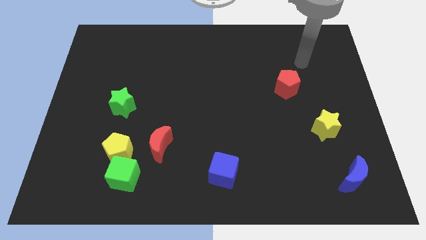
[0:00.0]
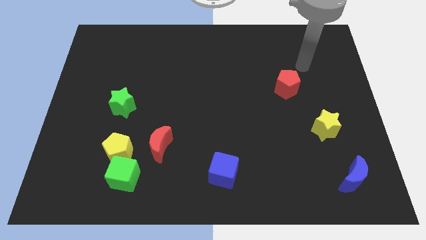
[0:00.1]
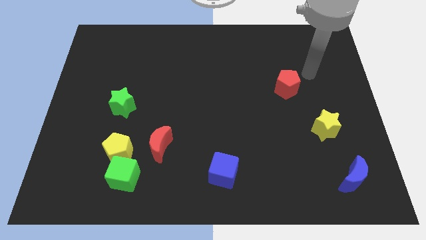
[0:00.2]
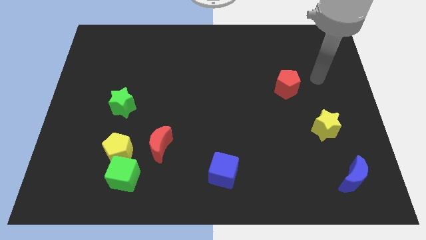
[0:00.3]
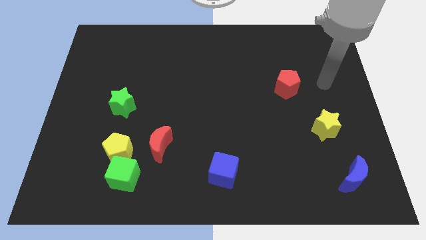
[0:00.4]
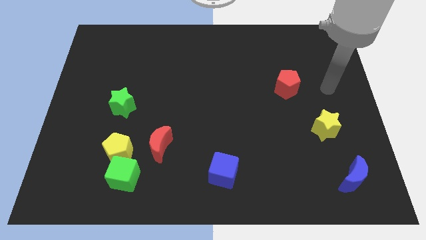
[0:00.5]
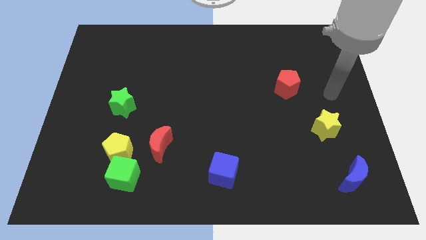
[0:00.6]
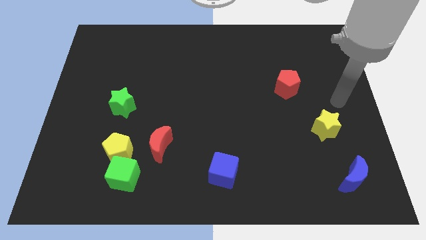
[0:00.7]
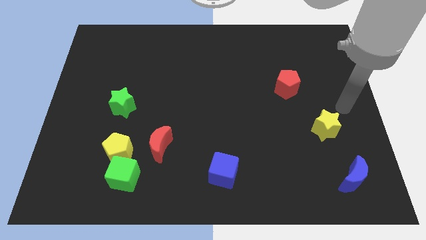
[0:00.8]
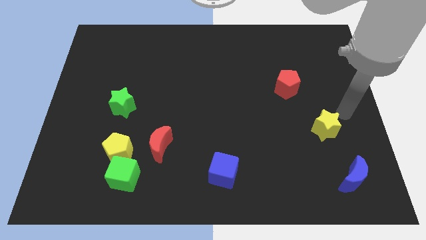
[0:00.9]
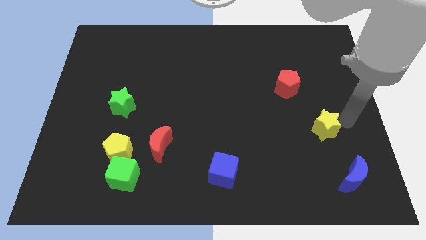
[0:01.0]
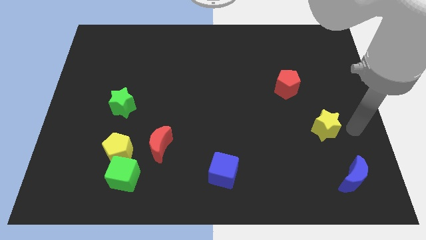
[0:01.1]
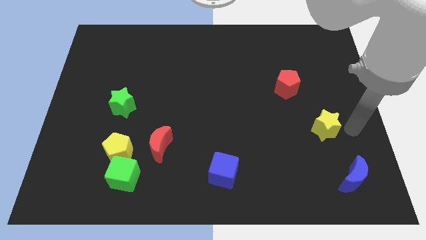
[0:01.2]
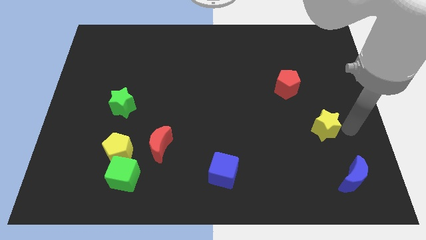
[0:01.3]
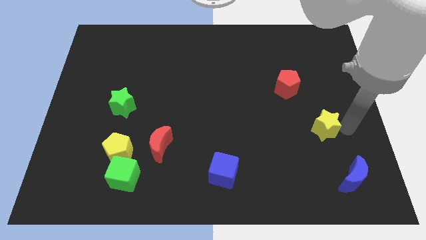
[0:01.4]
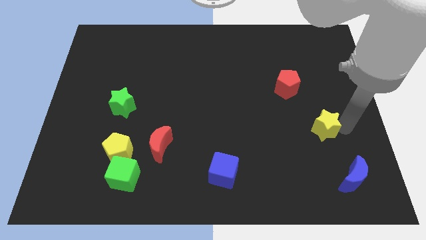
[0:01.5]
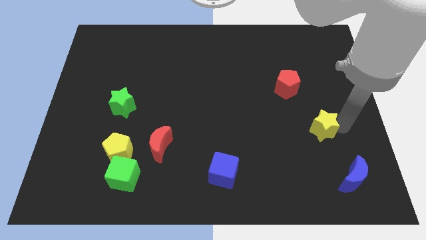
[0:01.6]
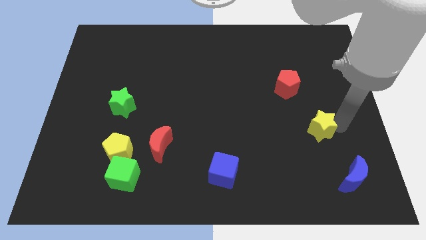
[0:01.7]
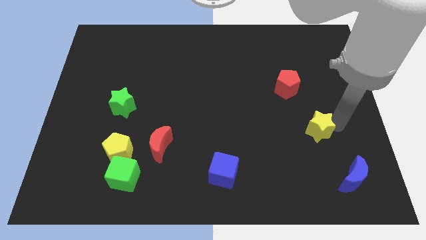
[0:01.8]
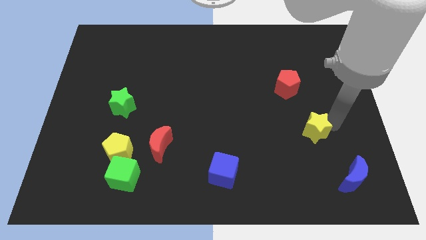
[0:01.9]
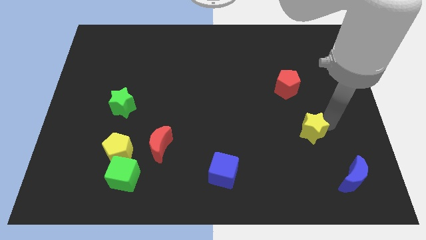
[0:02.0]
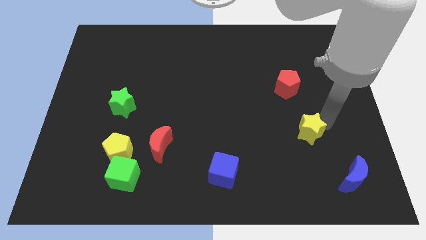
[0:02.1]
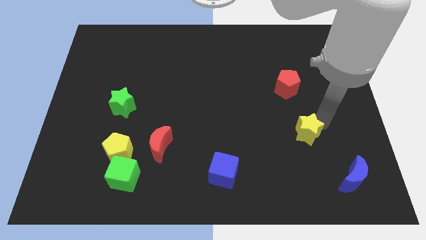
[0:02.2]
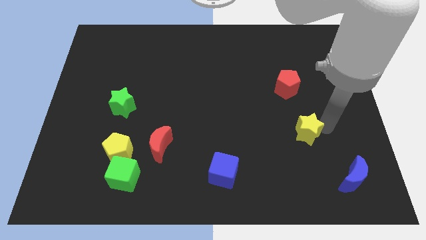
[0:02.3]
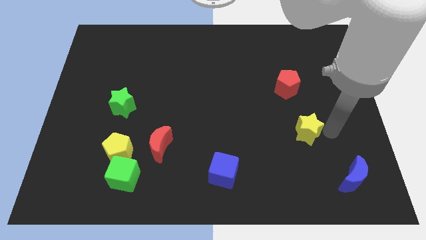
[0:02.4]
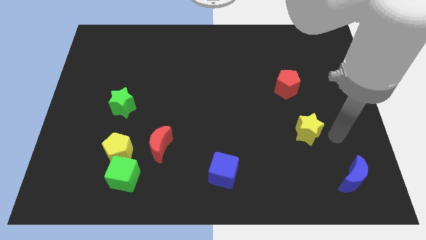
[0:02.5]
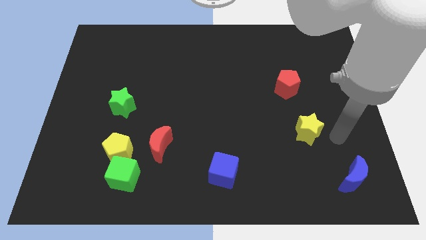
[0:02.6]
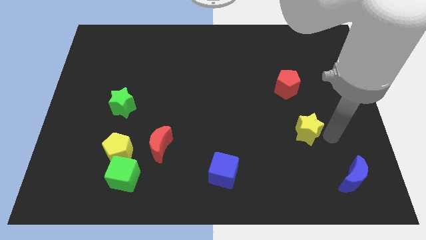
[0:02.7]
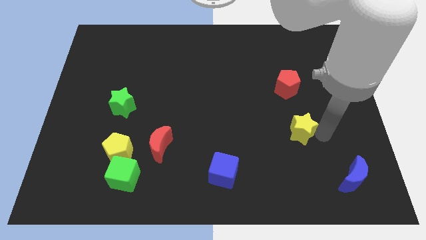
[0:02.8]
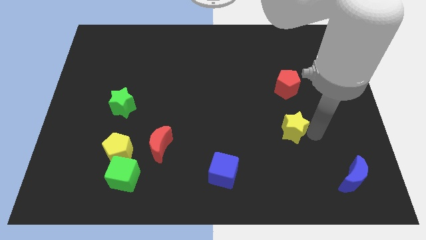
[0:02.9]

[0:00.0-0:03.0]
slide the yellow star a bit to the left

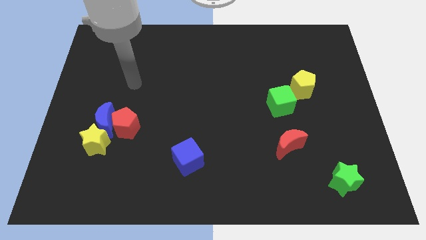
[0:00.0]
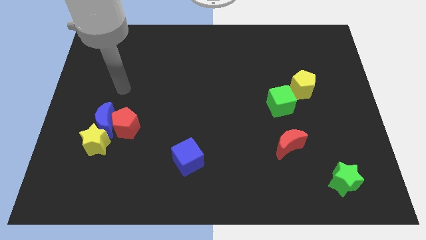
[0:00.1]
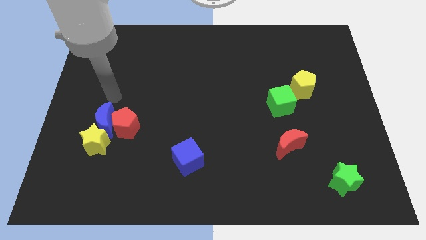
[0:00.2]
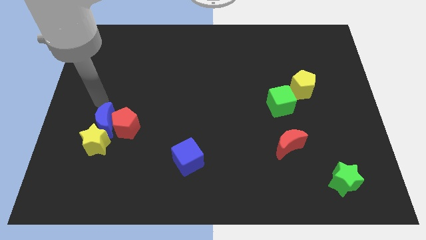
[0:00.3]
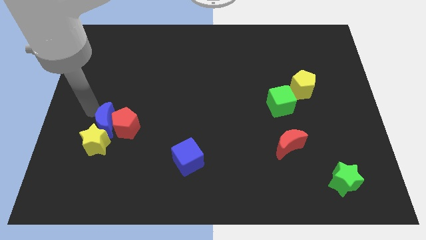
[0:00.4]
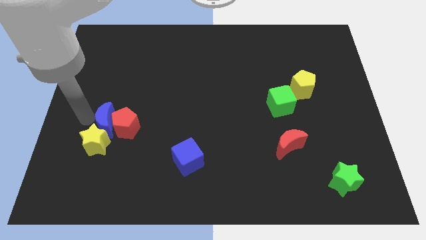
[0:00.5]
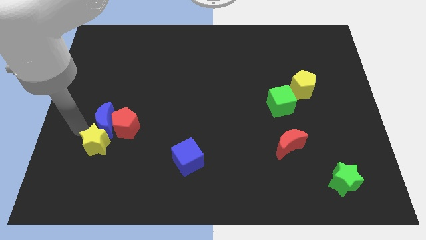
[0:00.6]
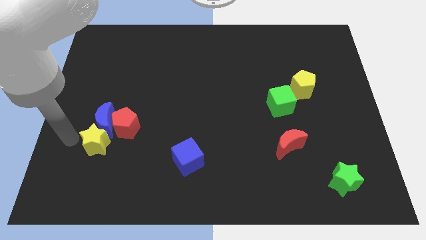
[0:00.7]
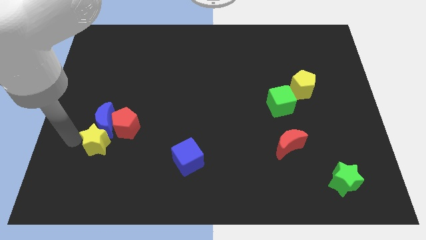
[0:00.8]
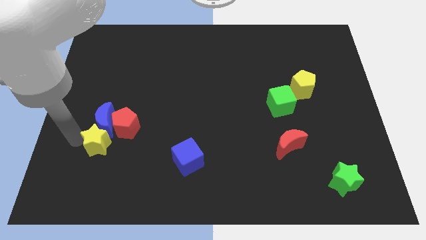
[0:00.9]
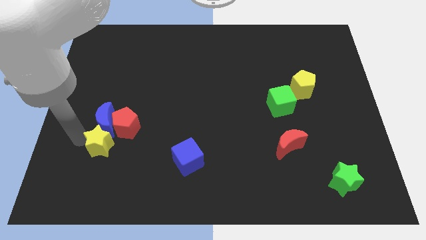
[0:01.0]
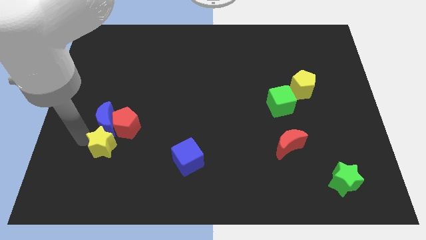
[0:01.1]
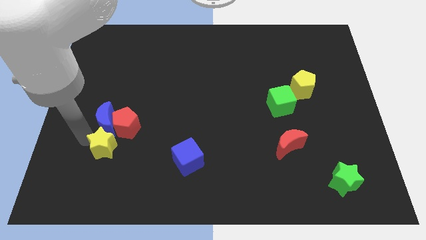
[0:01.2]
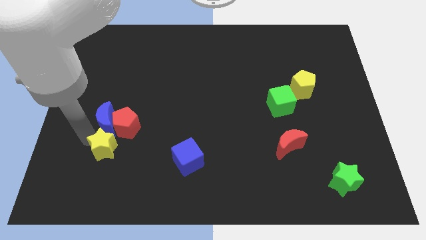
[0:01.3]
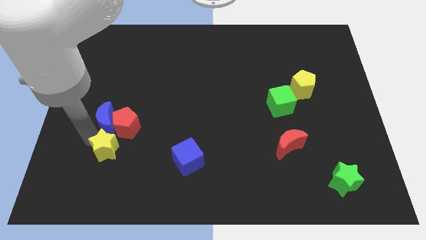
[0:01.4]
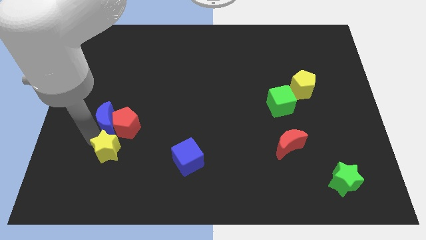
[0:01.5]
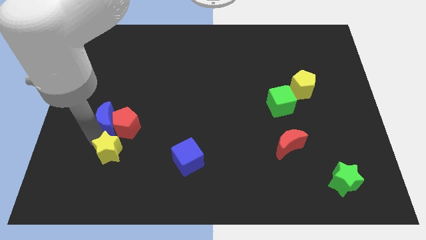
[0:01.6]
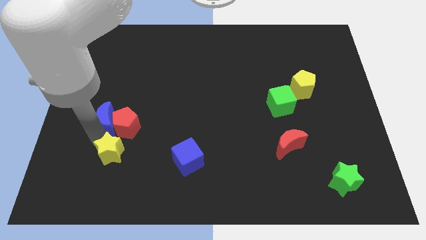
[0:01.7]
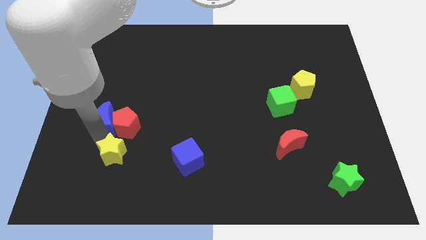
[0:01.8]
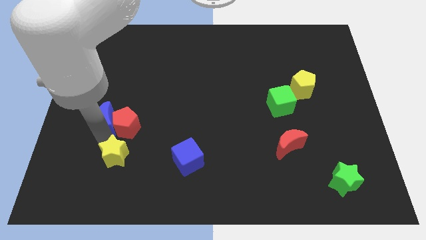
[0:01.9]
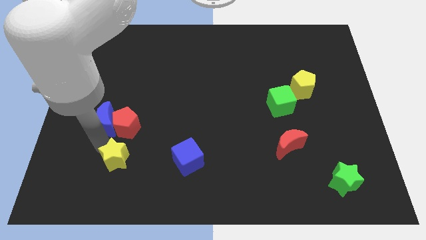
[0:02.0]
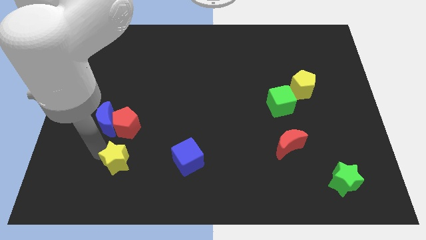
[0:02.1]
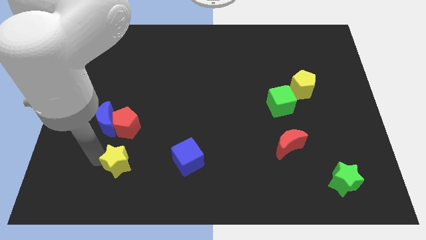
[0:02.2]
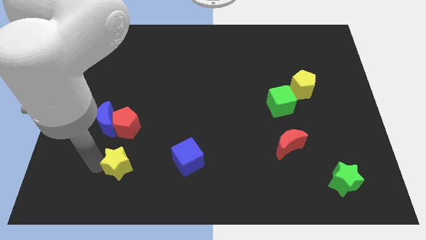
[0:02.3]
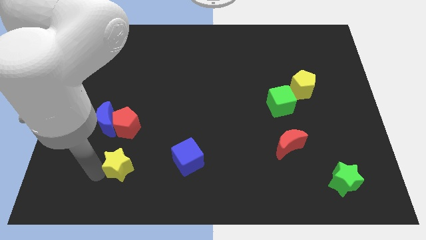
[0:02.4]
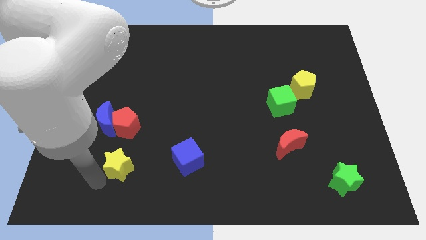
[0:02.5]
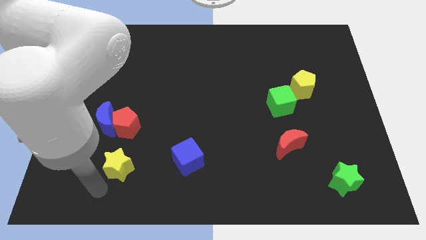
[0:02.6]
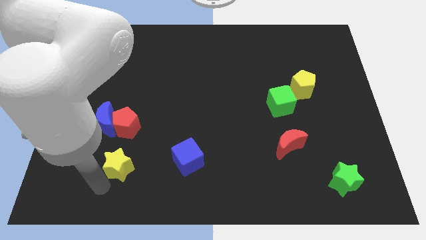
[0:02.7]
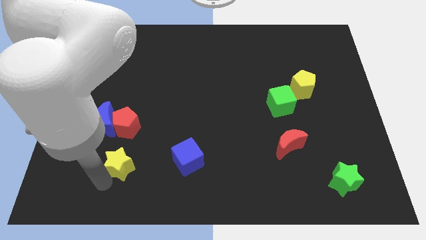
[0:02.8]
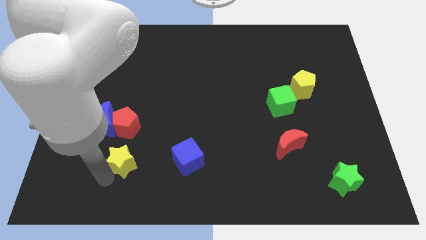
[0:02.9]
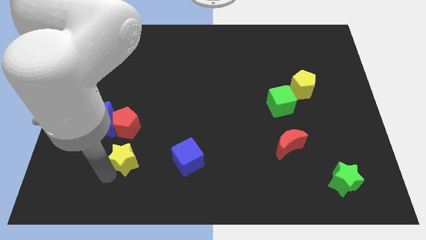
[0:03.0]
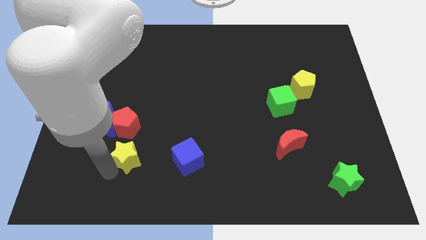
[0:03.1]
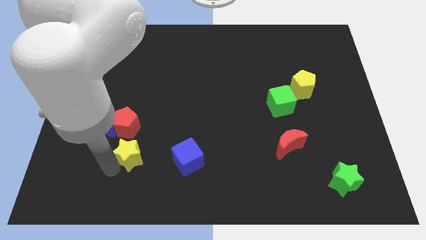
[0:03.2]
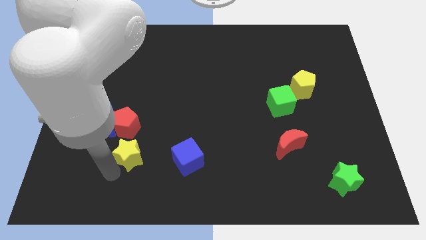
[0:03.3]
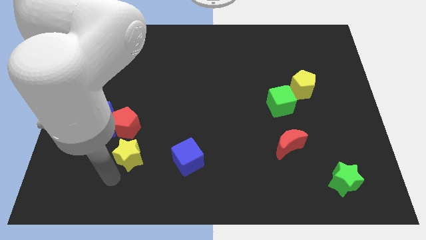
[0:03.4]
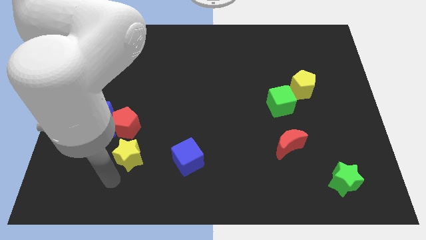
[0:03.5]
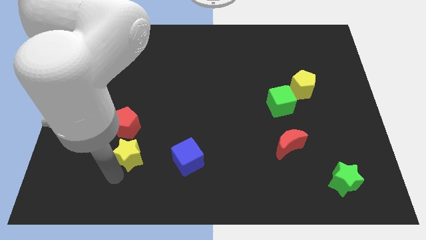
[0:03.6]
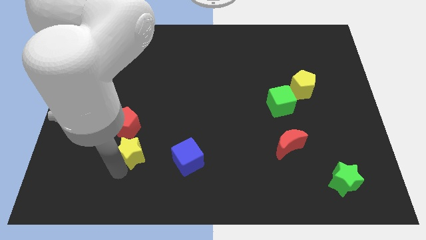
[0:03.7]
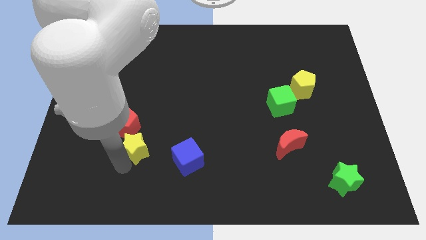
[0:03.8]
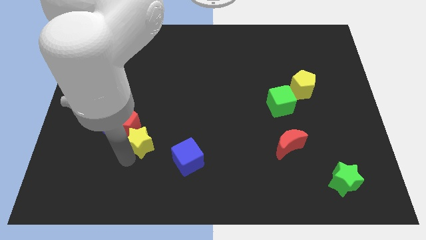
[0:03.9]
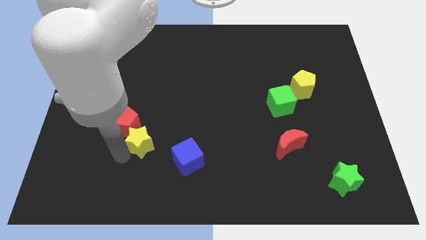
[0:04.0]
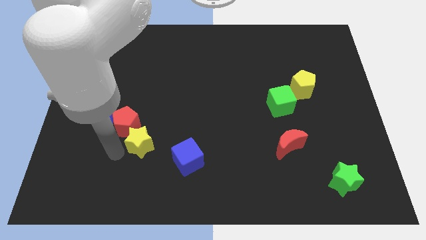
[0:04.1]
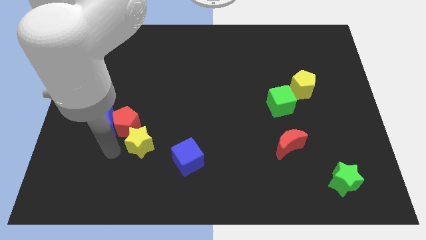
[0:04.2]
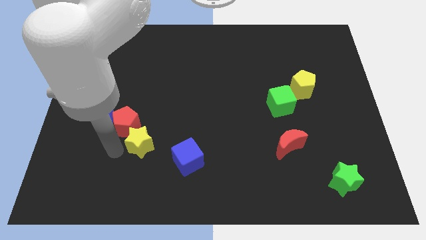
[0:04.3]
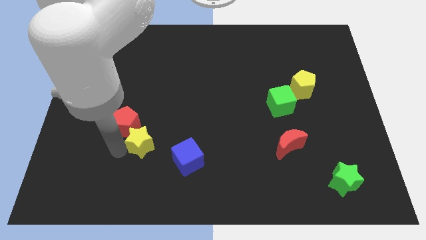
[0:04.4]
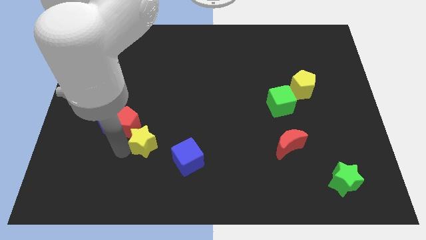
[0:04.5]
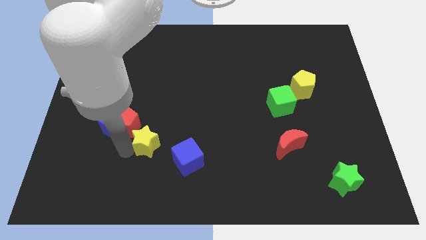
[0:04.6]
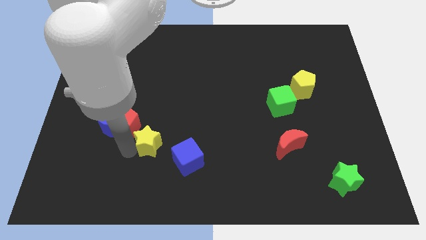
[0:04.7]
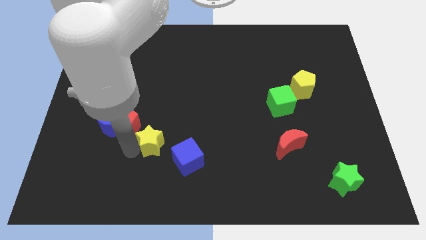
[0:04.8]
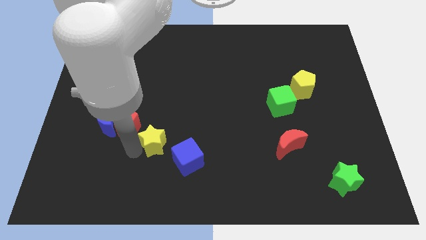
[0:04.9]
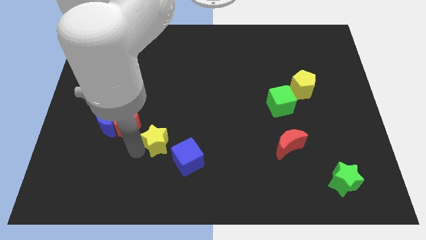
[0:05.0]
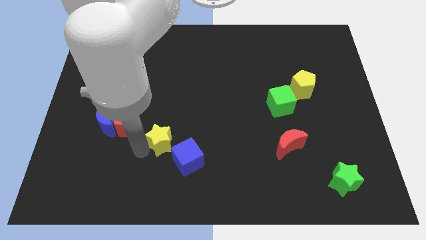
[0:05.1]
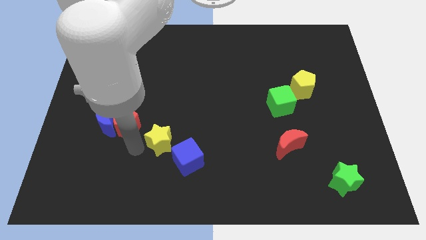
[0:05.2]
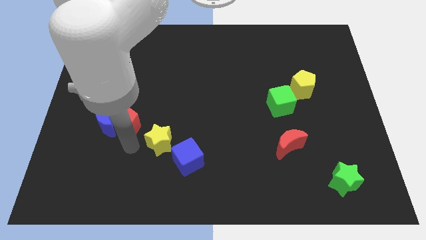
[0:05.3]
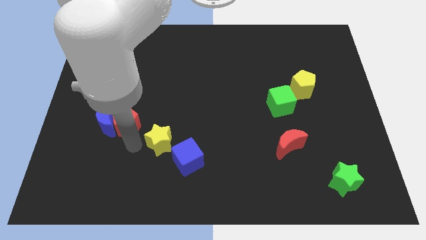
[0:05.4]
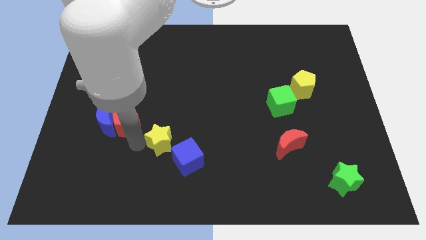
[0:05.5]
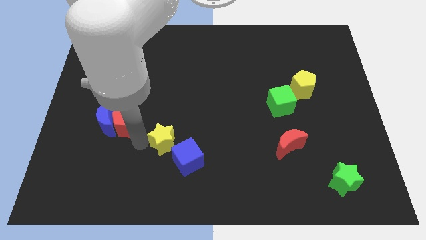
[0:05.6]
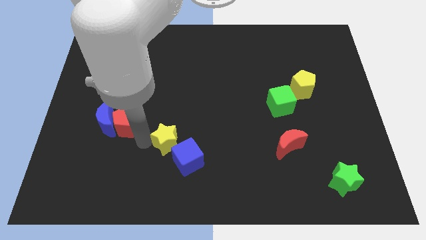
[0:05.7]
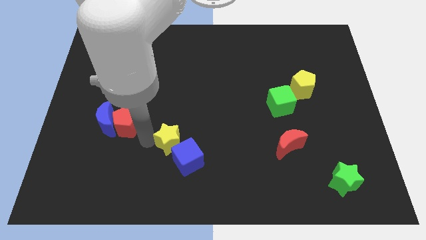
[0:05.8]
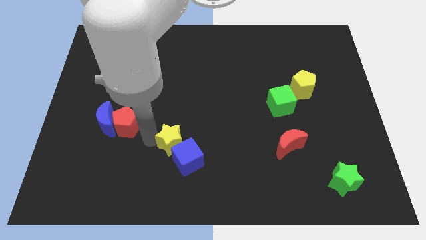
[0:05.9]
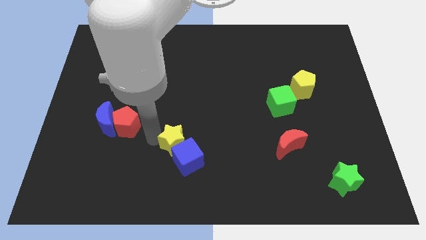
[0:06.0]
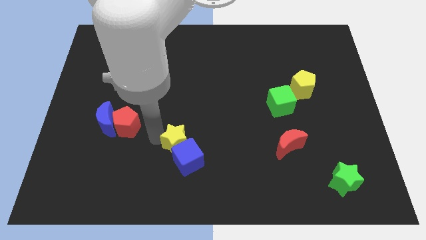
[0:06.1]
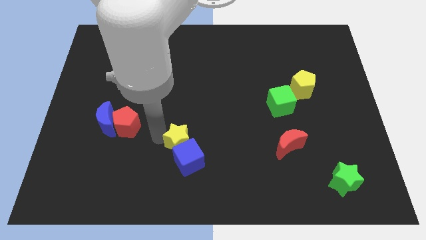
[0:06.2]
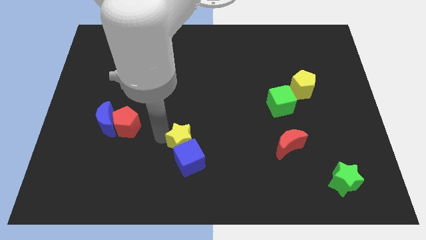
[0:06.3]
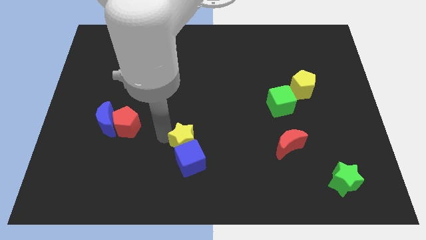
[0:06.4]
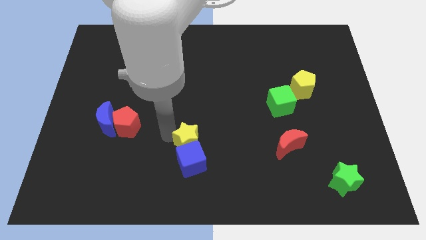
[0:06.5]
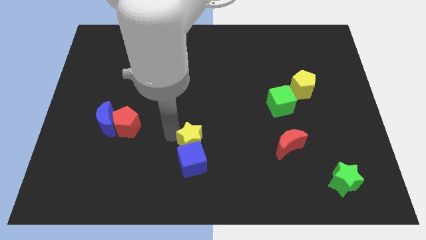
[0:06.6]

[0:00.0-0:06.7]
push the yellow star right
